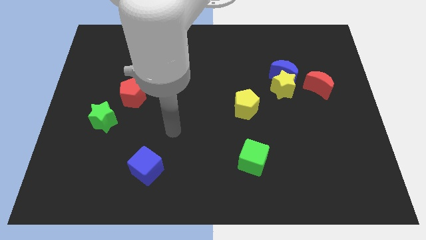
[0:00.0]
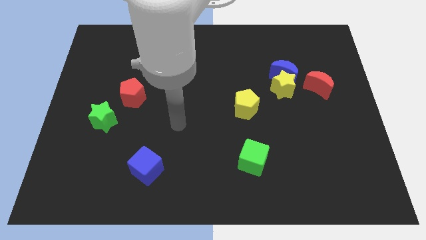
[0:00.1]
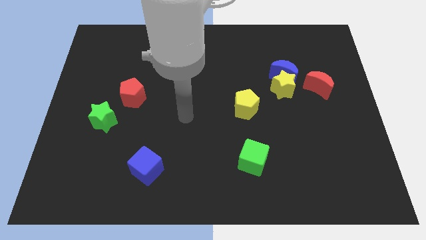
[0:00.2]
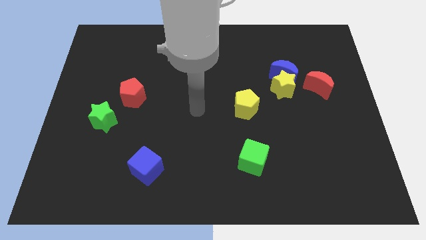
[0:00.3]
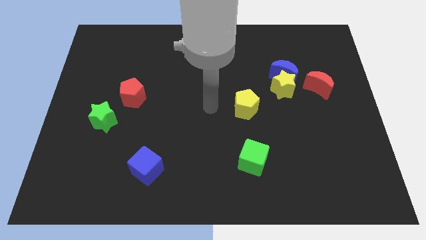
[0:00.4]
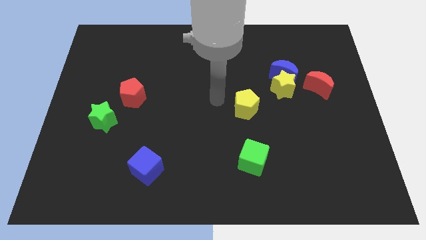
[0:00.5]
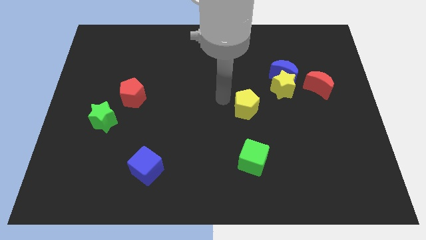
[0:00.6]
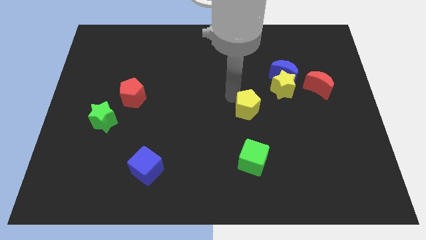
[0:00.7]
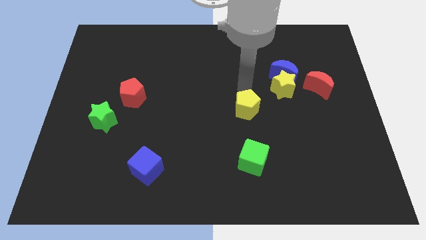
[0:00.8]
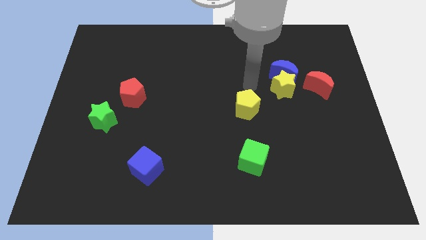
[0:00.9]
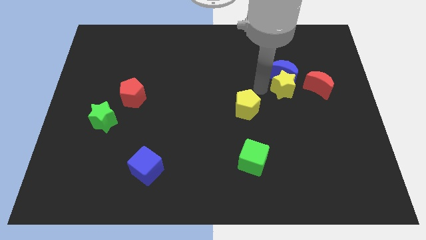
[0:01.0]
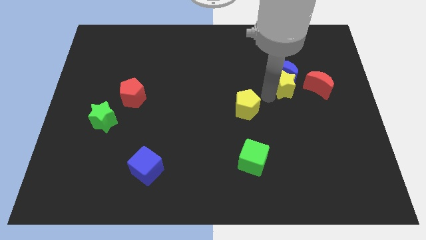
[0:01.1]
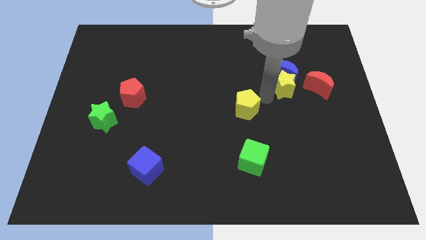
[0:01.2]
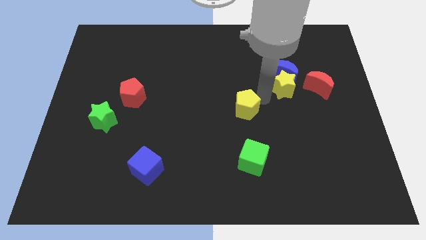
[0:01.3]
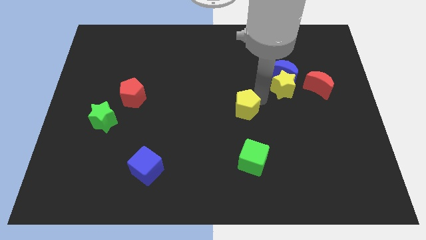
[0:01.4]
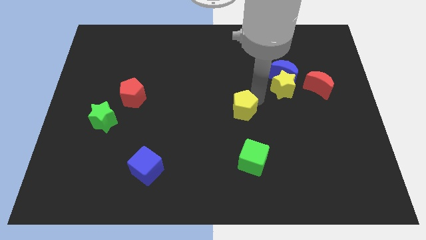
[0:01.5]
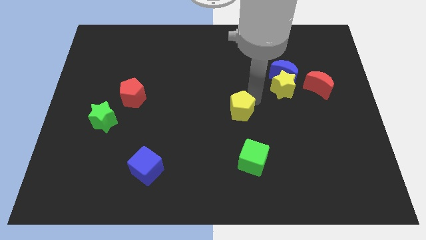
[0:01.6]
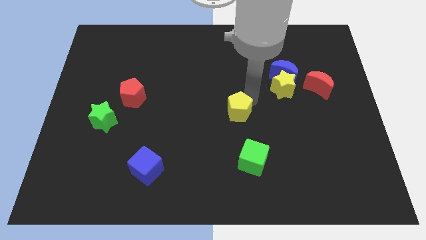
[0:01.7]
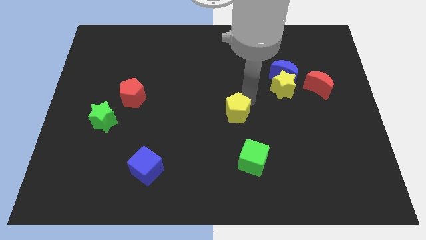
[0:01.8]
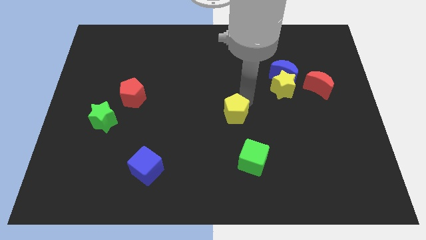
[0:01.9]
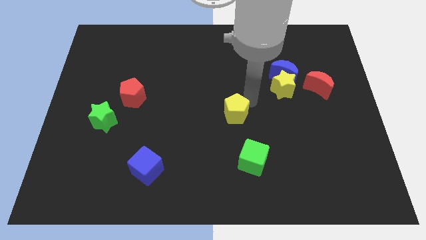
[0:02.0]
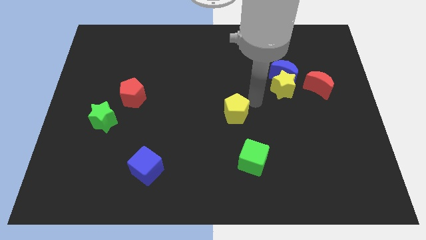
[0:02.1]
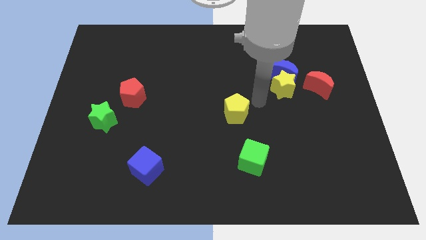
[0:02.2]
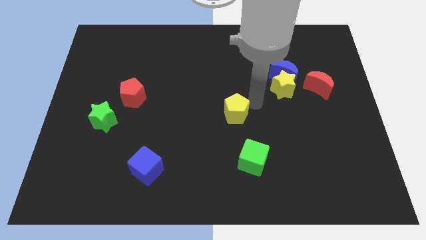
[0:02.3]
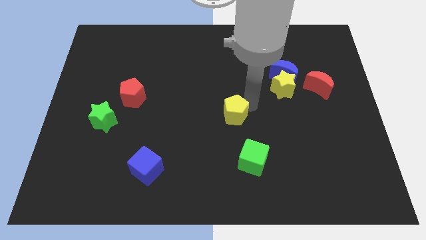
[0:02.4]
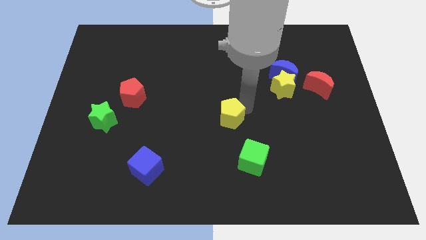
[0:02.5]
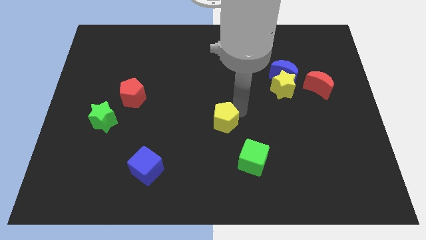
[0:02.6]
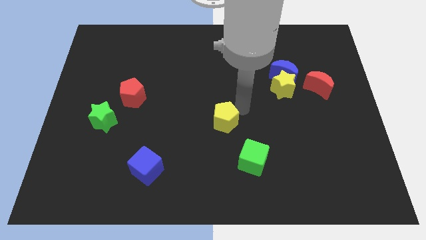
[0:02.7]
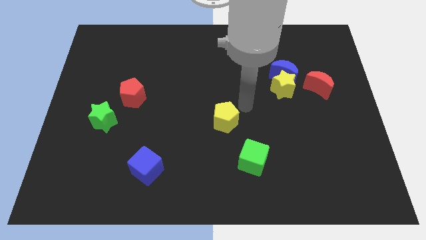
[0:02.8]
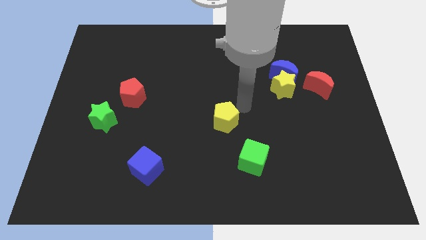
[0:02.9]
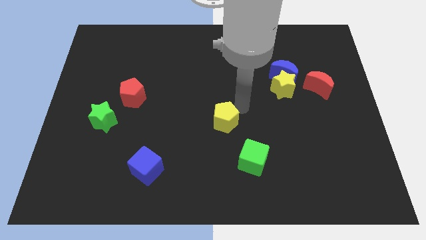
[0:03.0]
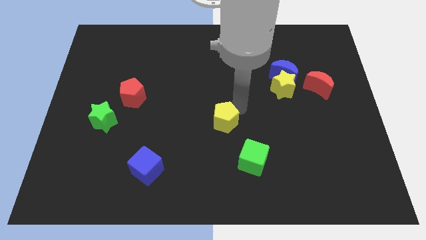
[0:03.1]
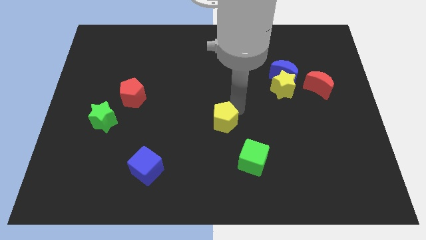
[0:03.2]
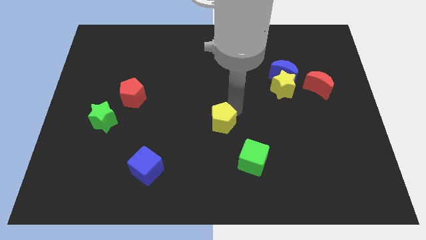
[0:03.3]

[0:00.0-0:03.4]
move the yellow pentagon down and left somewhat

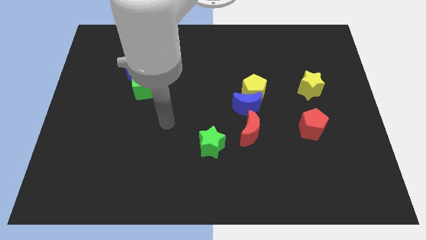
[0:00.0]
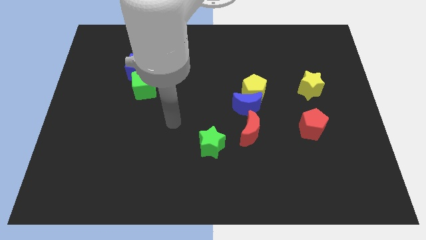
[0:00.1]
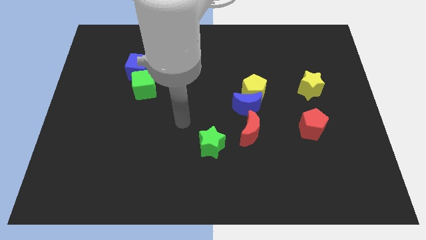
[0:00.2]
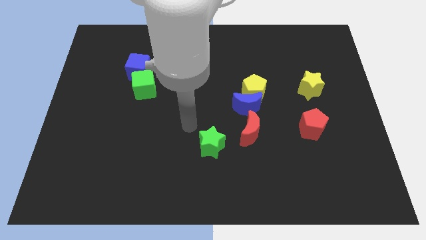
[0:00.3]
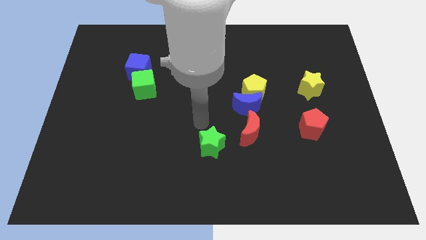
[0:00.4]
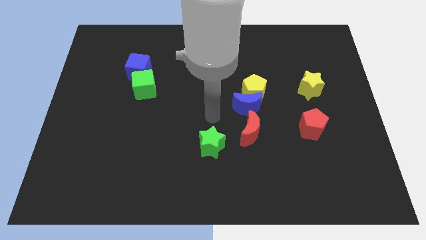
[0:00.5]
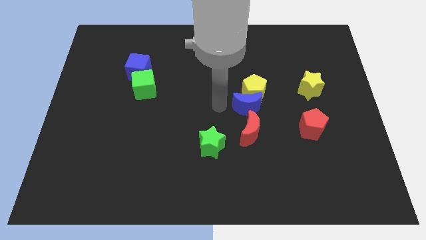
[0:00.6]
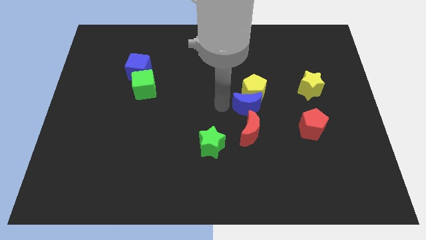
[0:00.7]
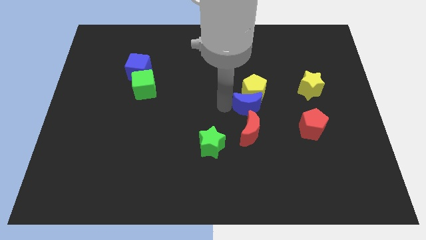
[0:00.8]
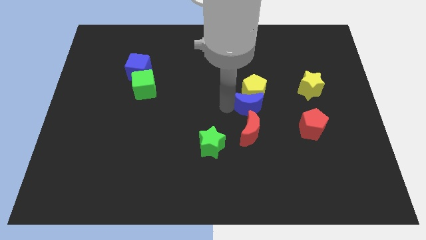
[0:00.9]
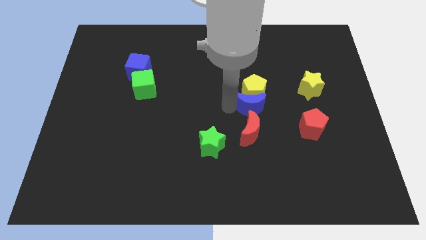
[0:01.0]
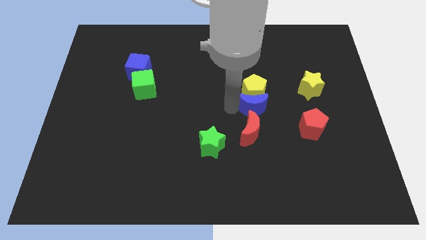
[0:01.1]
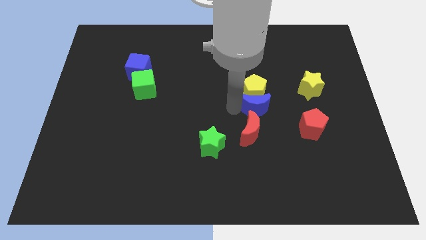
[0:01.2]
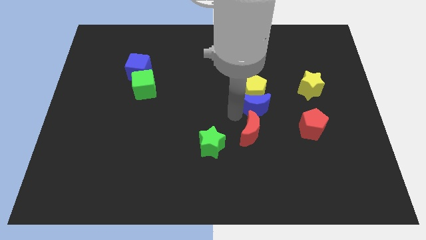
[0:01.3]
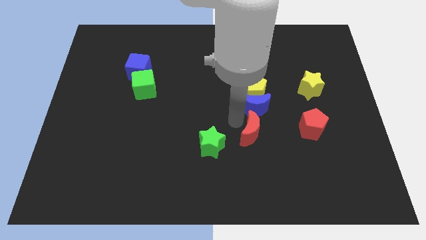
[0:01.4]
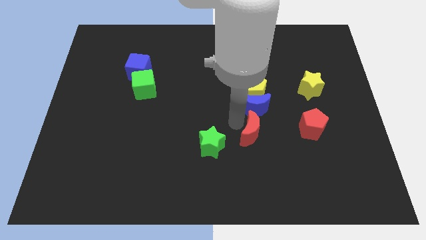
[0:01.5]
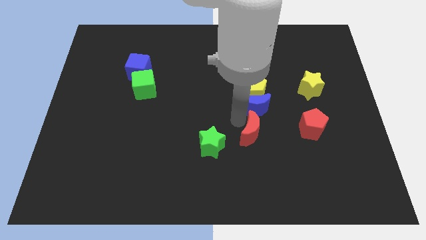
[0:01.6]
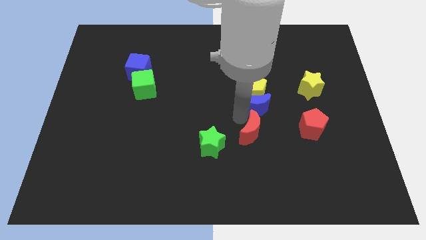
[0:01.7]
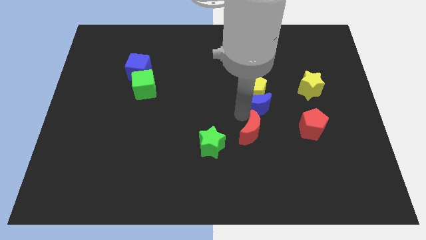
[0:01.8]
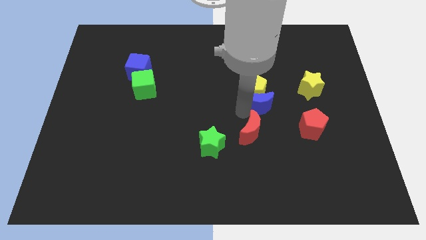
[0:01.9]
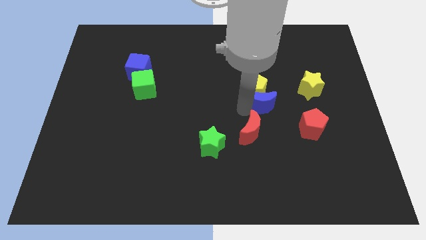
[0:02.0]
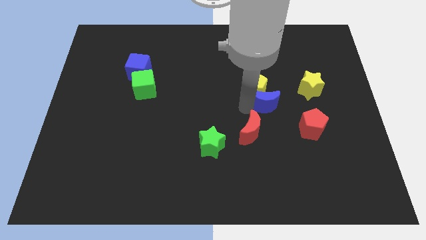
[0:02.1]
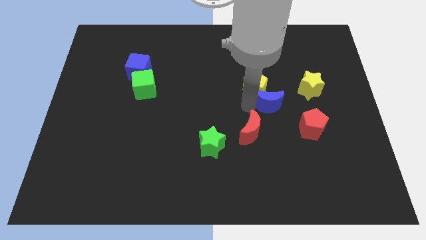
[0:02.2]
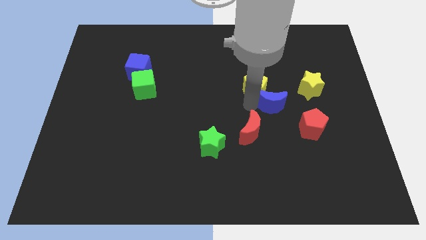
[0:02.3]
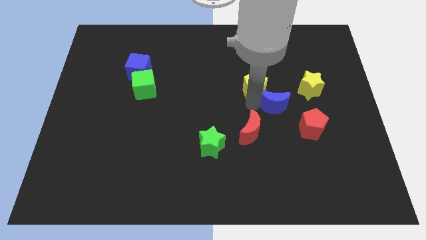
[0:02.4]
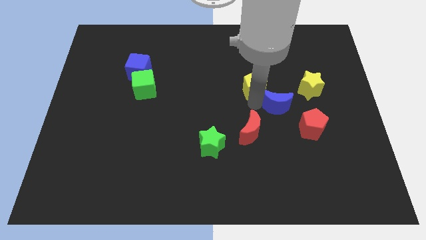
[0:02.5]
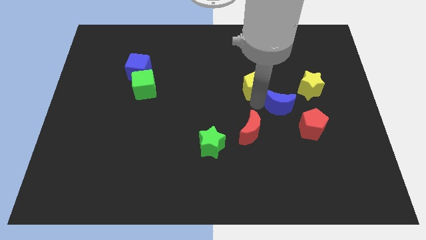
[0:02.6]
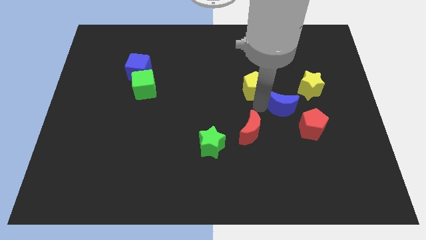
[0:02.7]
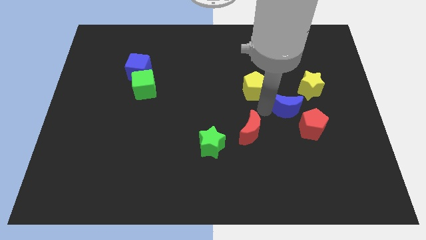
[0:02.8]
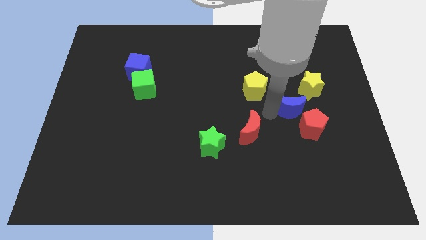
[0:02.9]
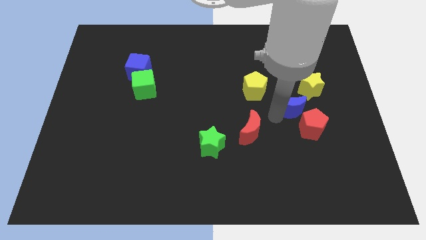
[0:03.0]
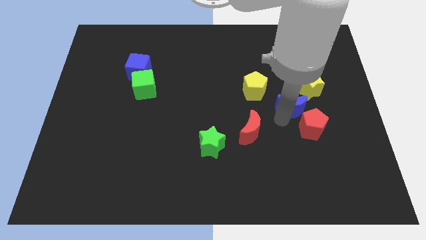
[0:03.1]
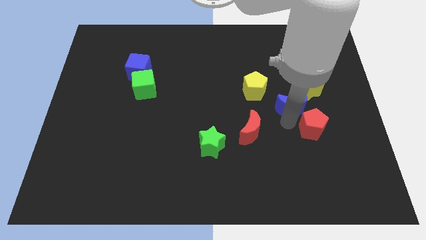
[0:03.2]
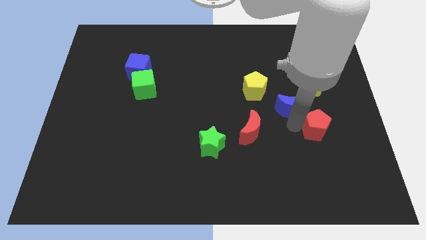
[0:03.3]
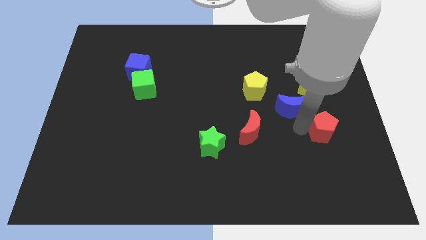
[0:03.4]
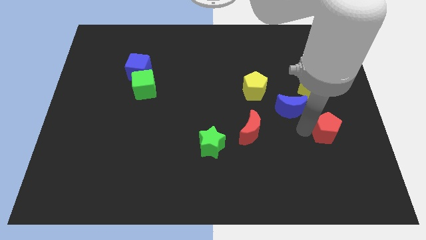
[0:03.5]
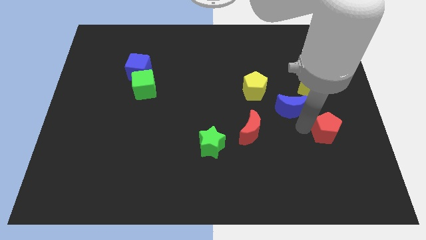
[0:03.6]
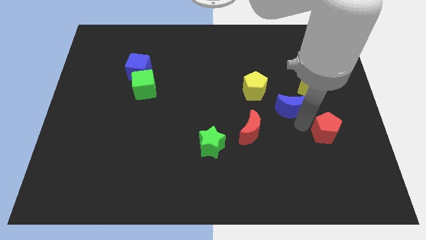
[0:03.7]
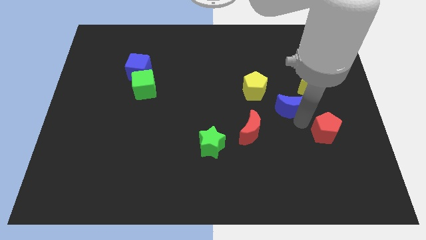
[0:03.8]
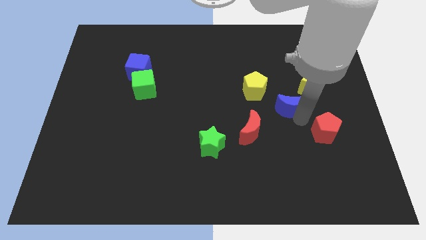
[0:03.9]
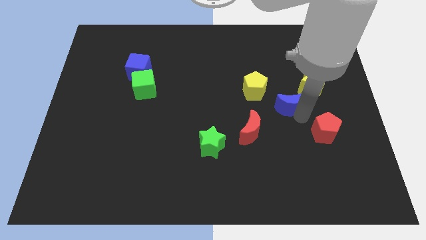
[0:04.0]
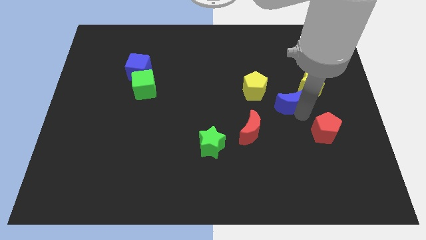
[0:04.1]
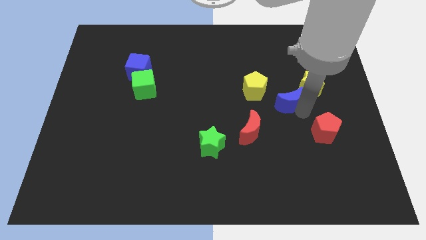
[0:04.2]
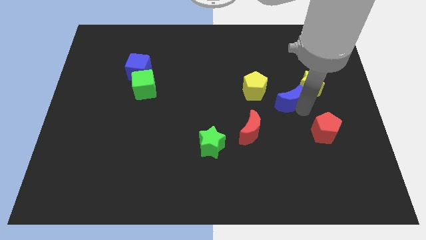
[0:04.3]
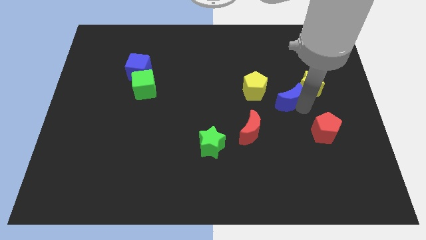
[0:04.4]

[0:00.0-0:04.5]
slide the blue moon slightly up and then right
